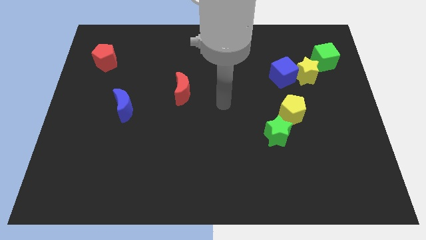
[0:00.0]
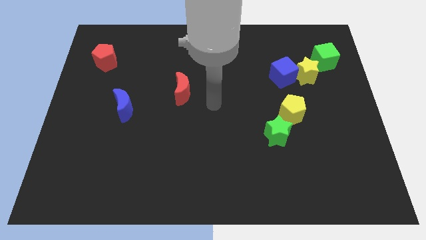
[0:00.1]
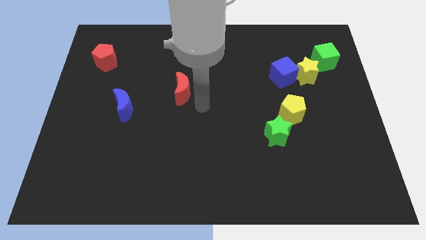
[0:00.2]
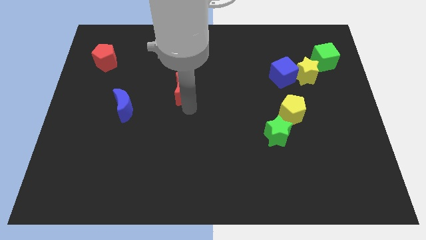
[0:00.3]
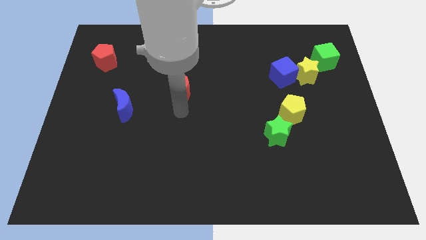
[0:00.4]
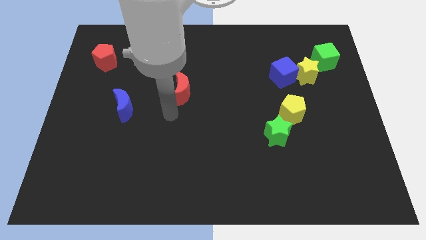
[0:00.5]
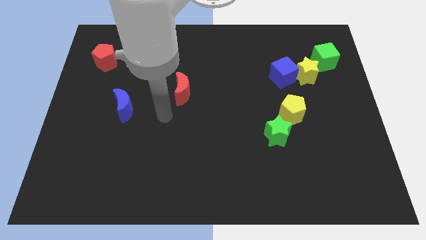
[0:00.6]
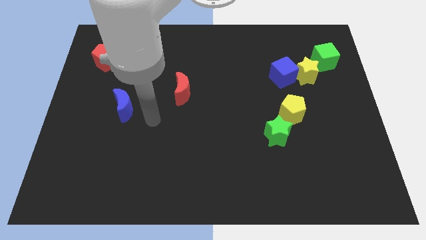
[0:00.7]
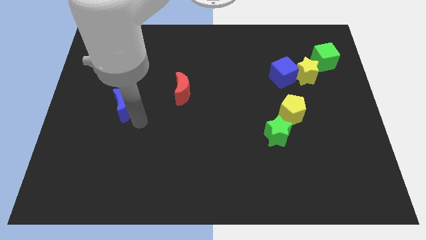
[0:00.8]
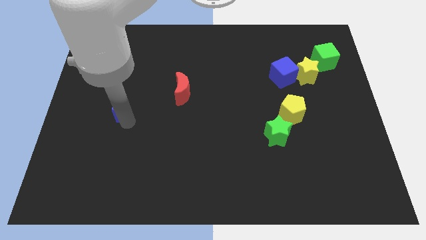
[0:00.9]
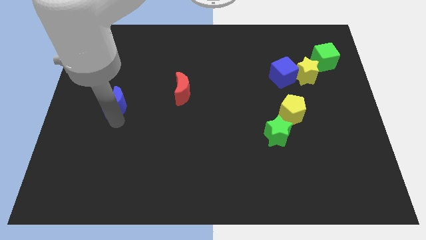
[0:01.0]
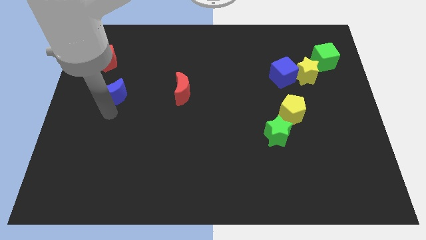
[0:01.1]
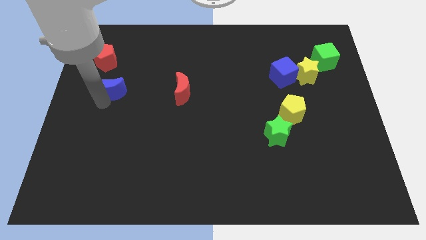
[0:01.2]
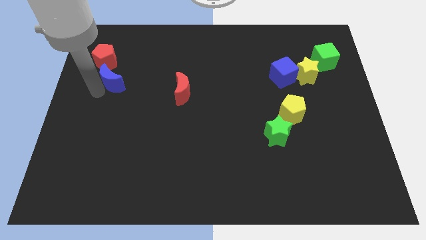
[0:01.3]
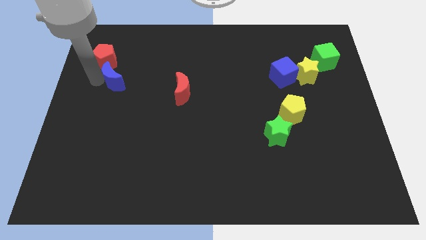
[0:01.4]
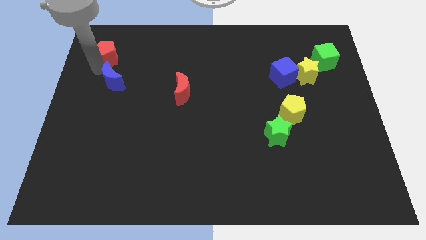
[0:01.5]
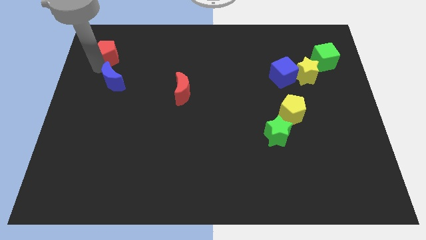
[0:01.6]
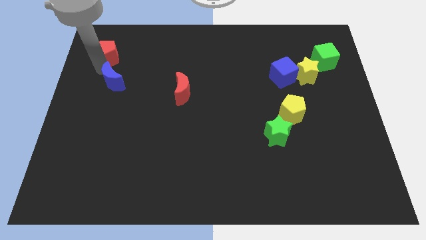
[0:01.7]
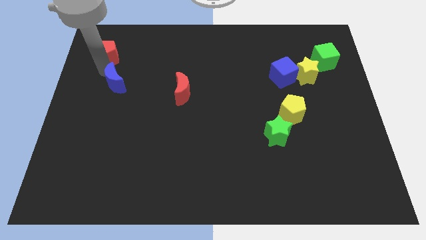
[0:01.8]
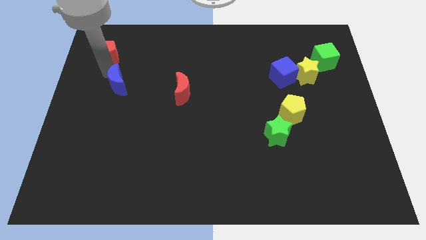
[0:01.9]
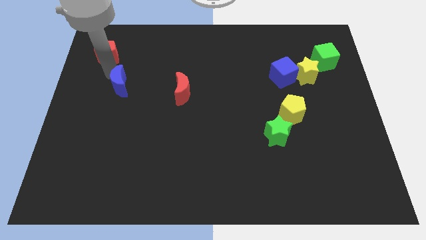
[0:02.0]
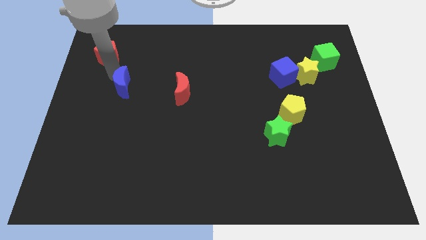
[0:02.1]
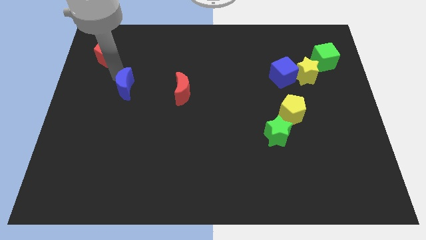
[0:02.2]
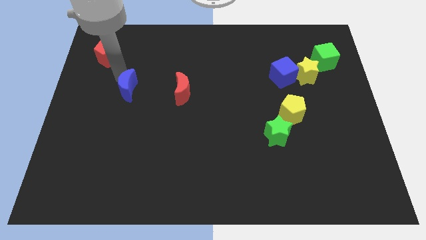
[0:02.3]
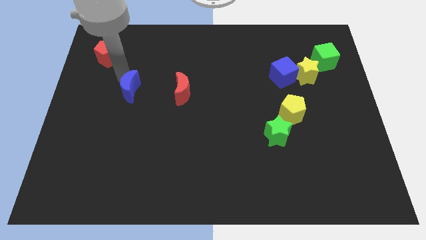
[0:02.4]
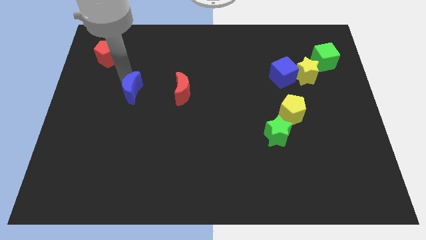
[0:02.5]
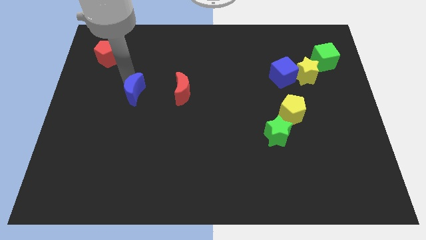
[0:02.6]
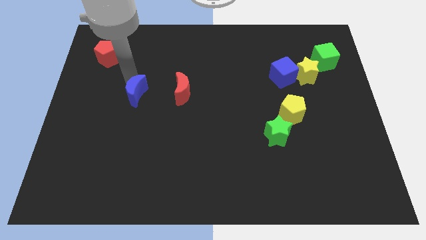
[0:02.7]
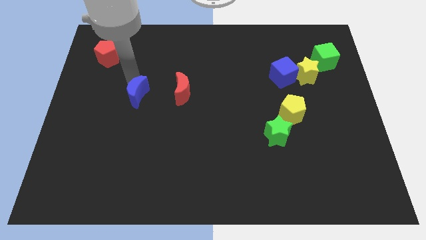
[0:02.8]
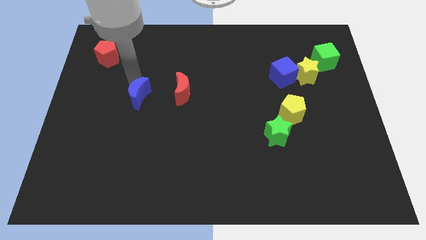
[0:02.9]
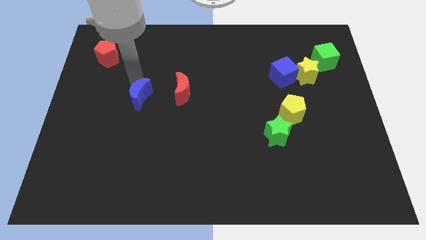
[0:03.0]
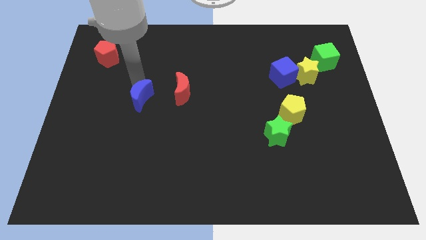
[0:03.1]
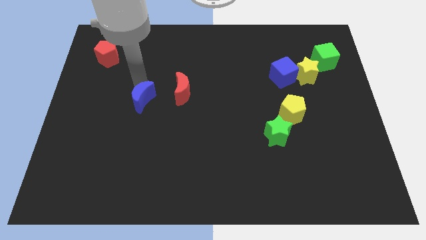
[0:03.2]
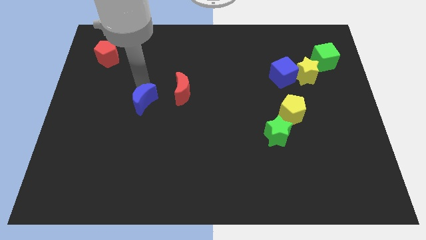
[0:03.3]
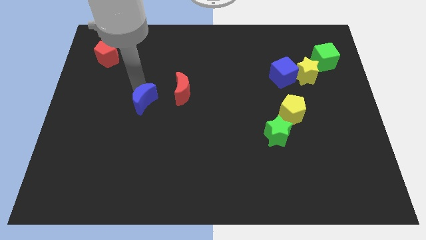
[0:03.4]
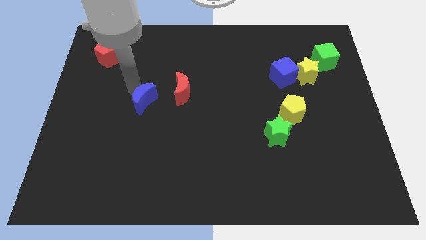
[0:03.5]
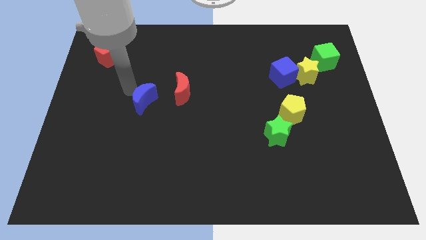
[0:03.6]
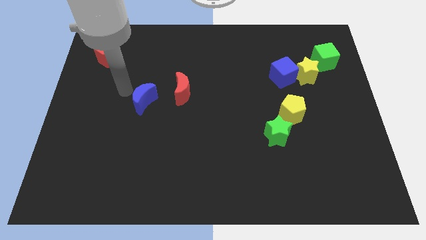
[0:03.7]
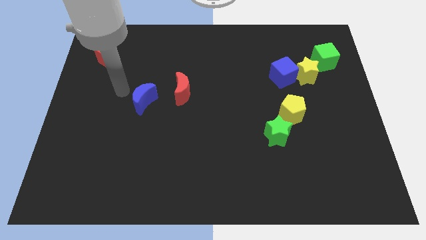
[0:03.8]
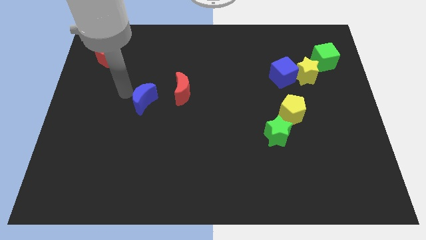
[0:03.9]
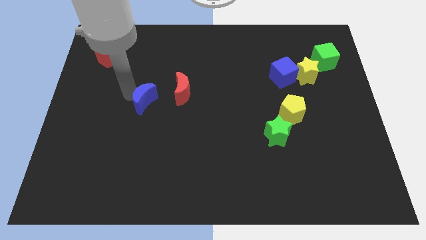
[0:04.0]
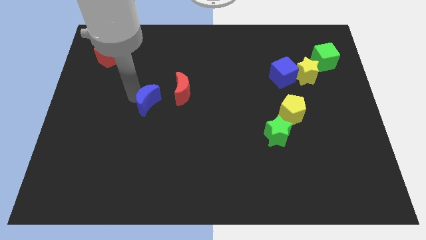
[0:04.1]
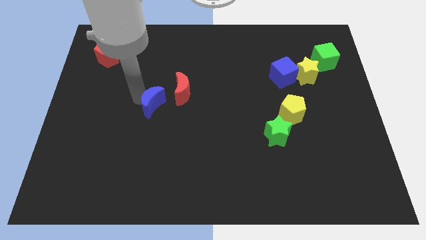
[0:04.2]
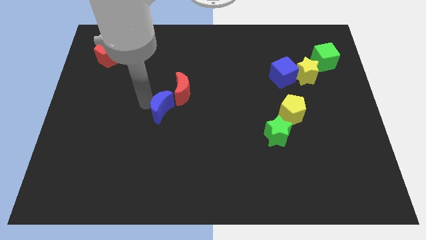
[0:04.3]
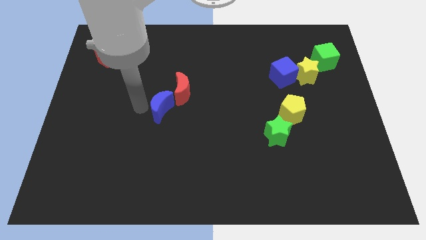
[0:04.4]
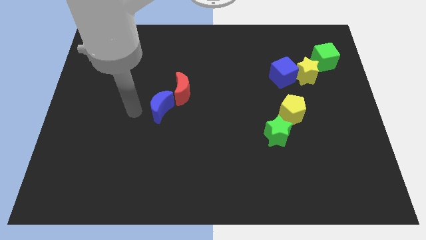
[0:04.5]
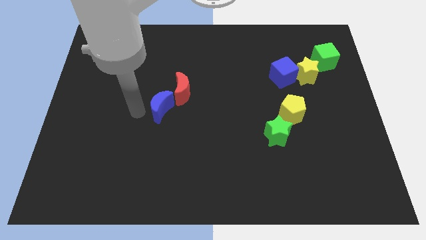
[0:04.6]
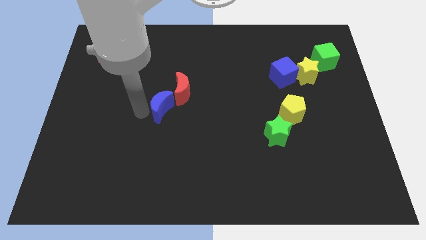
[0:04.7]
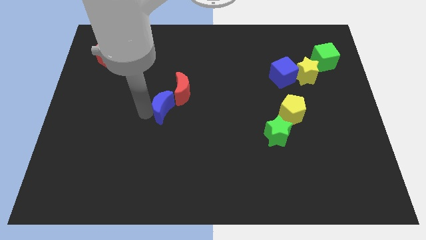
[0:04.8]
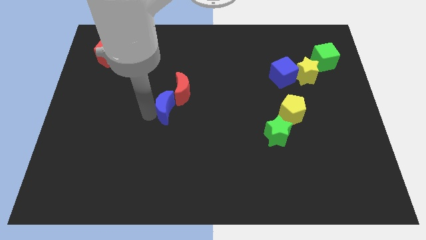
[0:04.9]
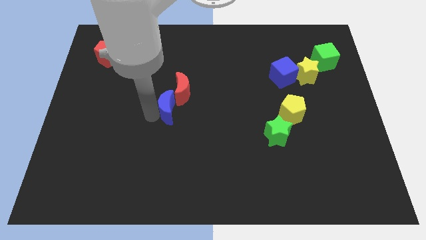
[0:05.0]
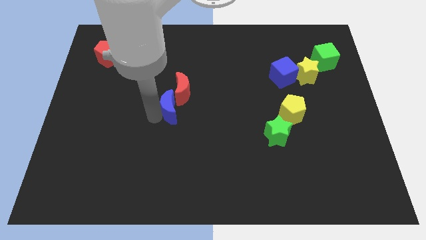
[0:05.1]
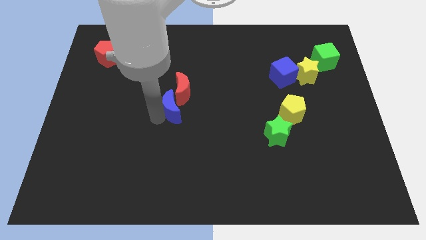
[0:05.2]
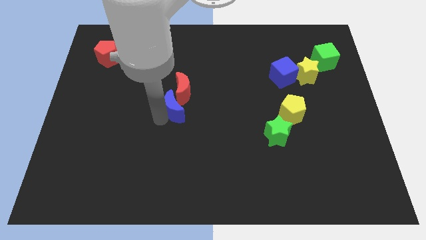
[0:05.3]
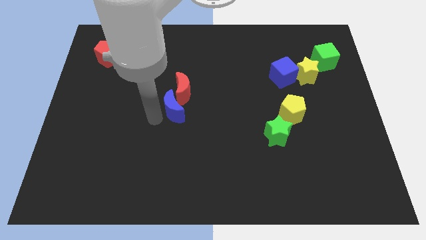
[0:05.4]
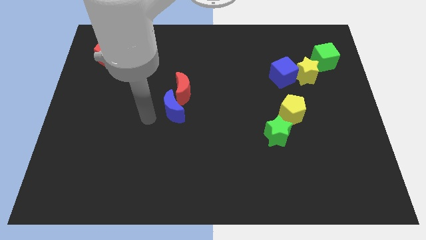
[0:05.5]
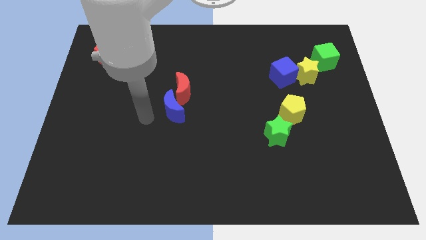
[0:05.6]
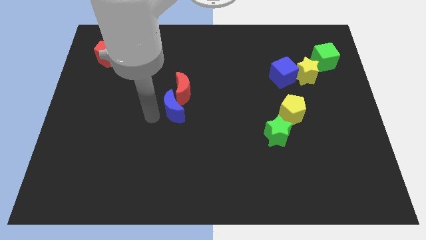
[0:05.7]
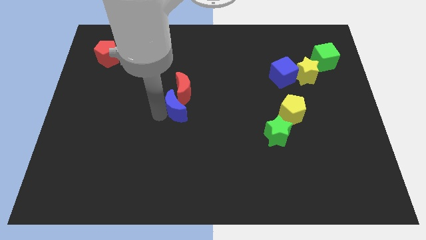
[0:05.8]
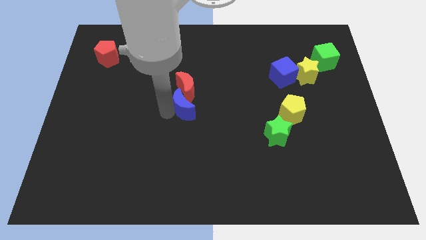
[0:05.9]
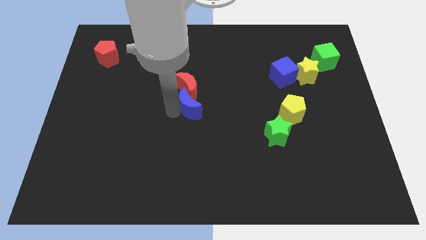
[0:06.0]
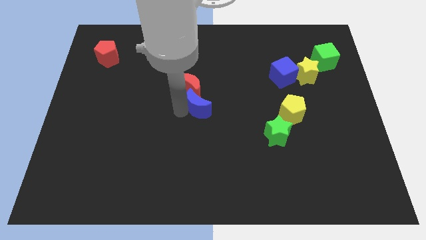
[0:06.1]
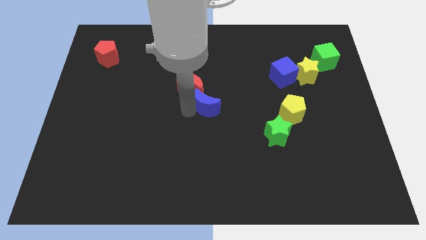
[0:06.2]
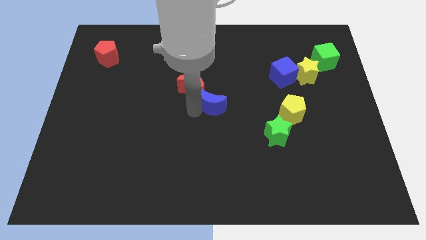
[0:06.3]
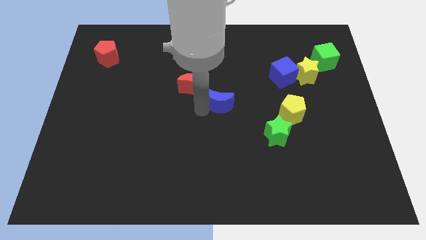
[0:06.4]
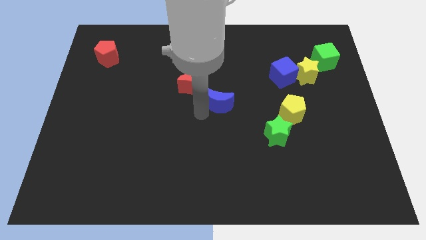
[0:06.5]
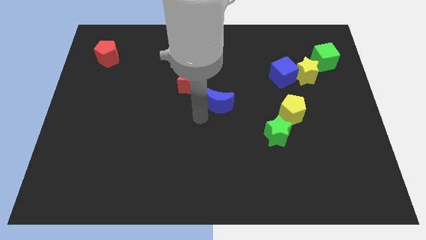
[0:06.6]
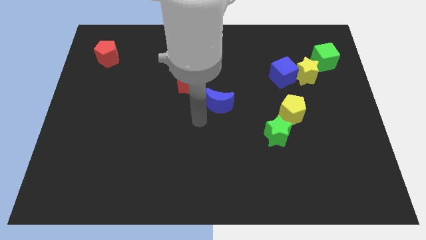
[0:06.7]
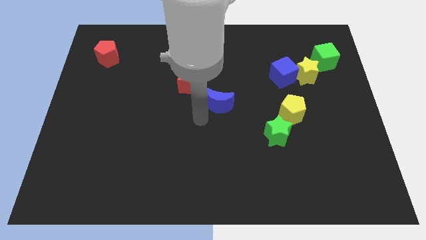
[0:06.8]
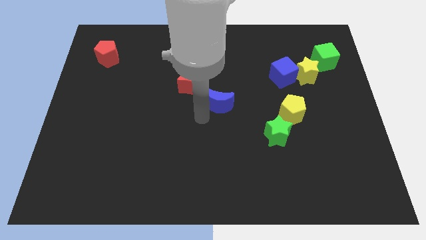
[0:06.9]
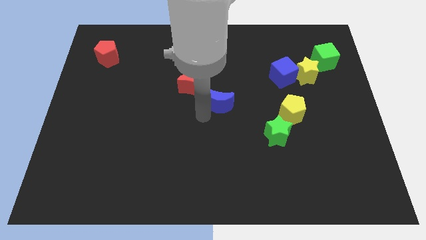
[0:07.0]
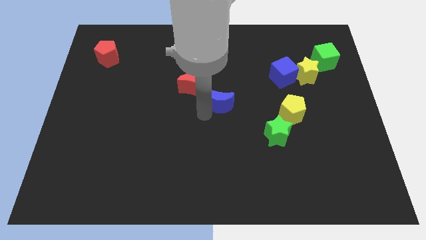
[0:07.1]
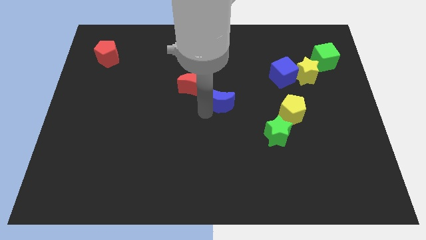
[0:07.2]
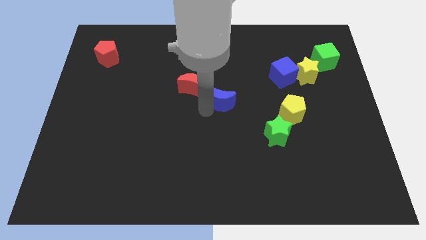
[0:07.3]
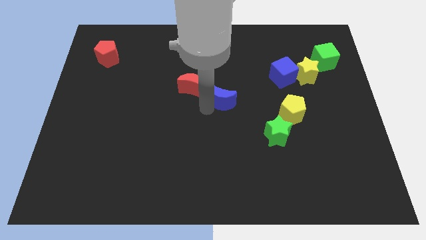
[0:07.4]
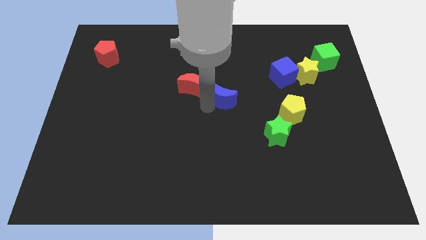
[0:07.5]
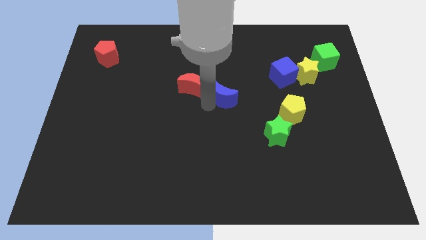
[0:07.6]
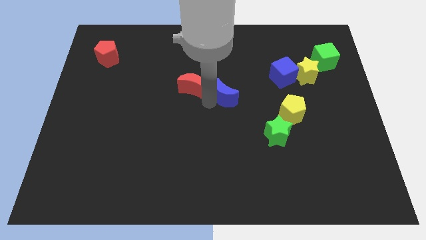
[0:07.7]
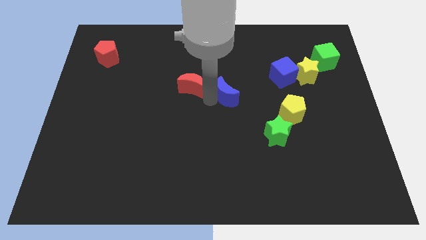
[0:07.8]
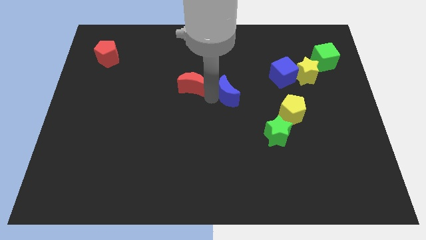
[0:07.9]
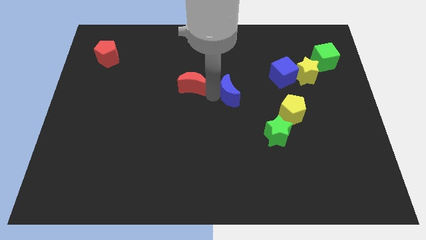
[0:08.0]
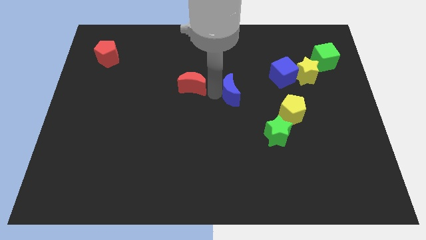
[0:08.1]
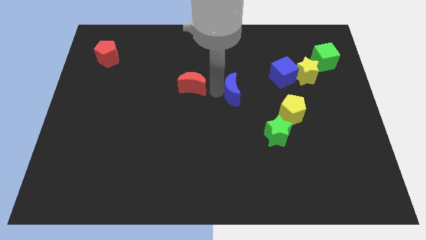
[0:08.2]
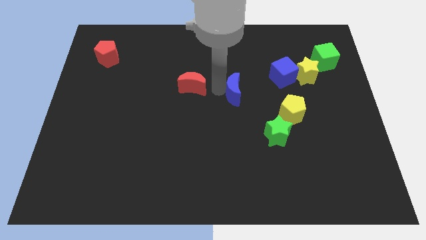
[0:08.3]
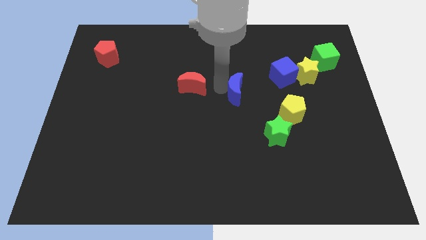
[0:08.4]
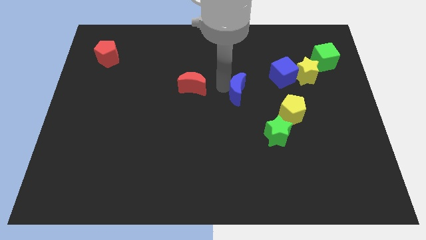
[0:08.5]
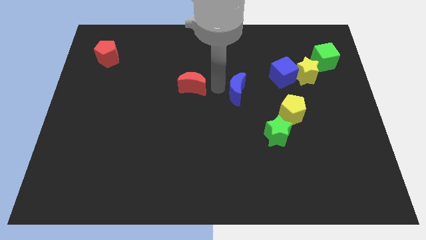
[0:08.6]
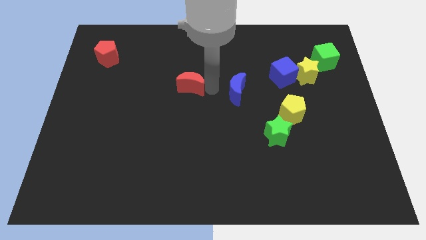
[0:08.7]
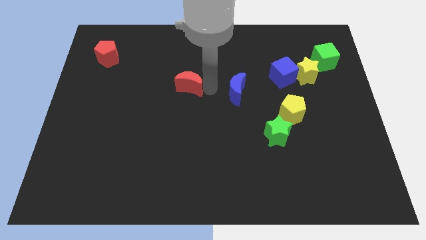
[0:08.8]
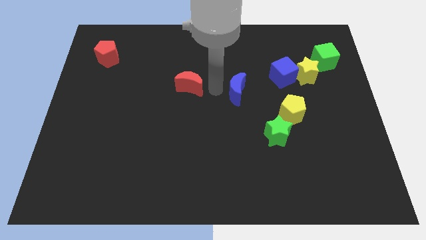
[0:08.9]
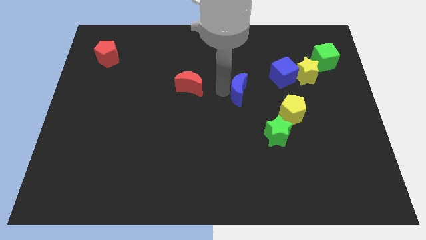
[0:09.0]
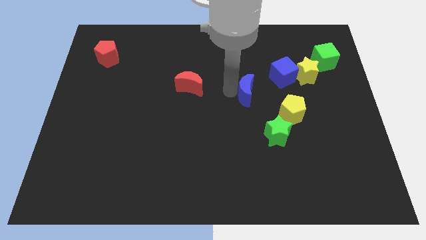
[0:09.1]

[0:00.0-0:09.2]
slide the blue moon to the top left of the yellow pentagon
